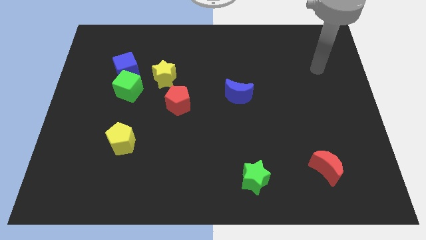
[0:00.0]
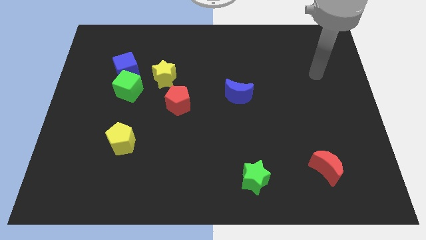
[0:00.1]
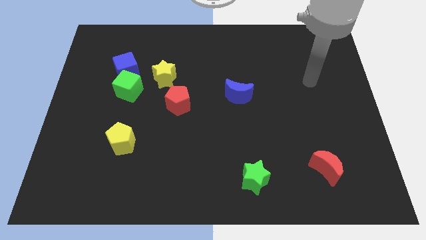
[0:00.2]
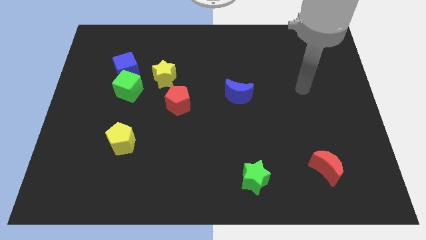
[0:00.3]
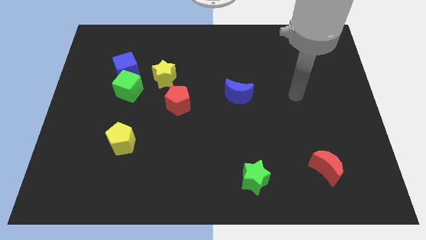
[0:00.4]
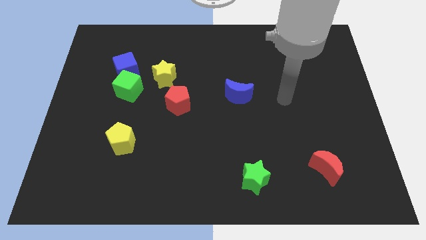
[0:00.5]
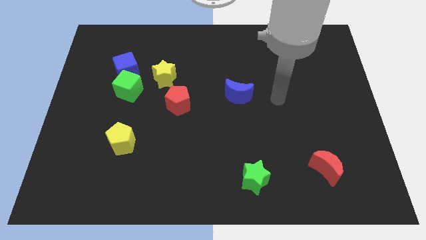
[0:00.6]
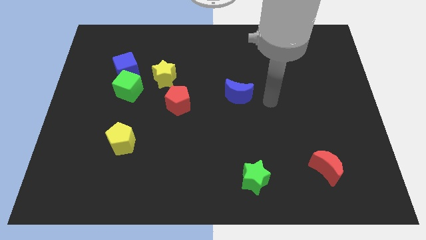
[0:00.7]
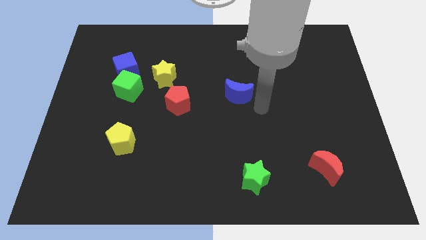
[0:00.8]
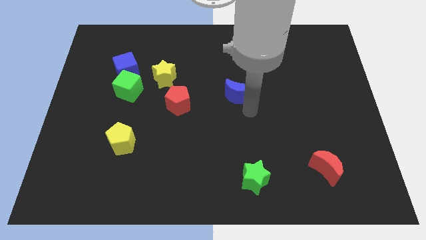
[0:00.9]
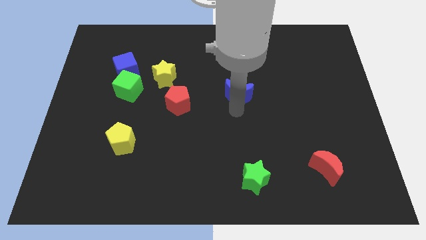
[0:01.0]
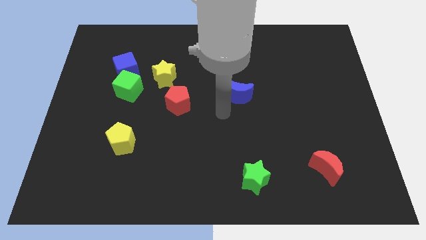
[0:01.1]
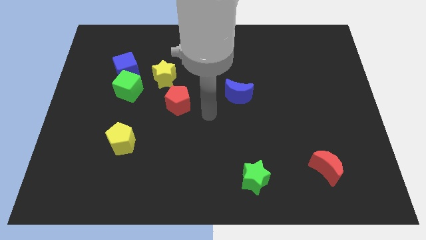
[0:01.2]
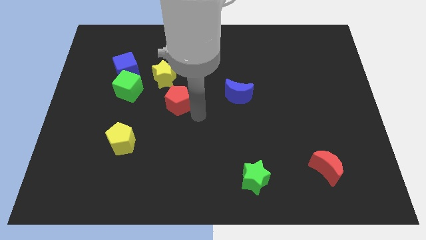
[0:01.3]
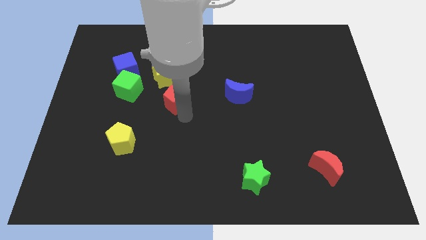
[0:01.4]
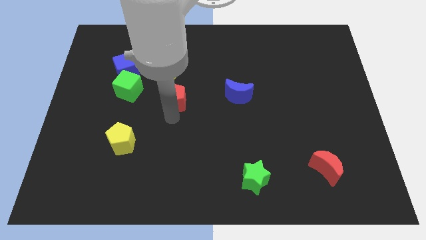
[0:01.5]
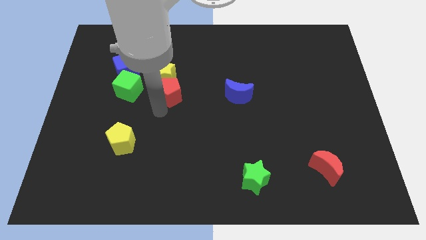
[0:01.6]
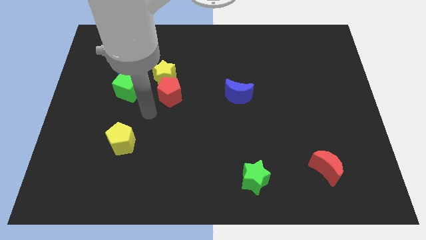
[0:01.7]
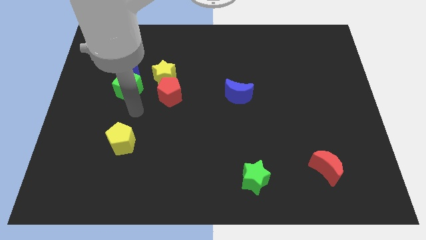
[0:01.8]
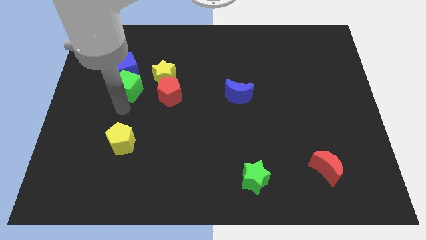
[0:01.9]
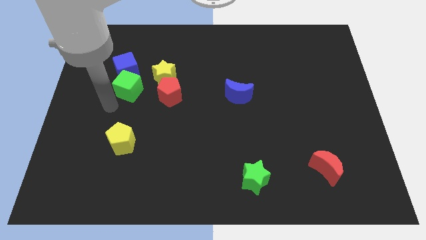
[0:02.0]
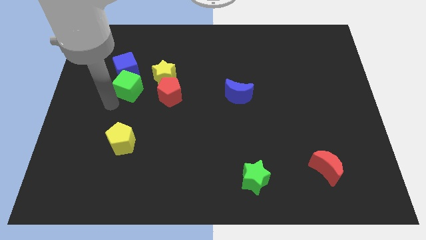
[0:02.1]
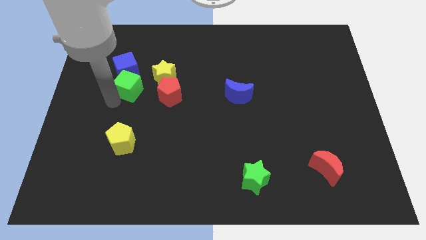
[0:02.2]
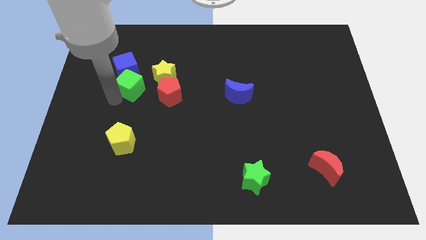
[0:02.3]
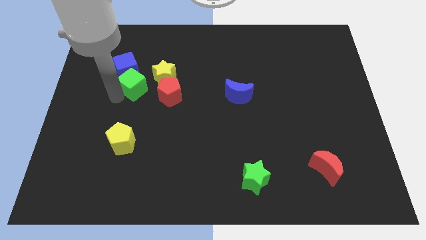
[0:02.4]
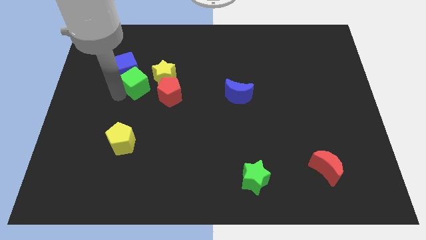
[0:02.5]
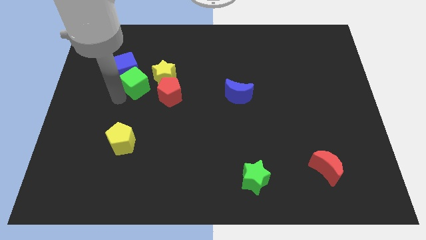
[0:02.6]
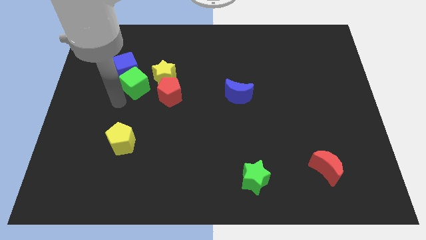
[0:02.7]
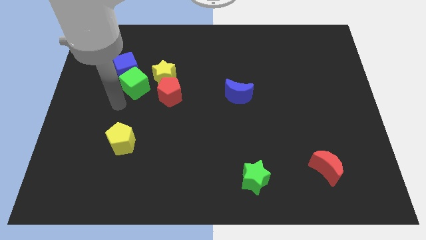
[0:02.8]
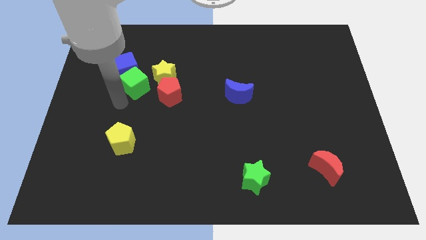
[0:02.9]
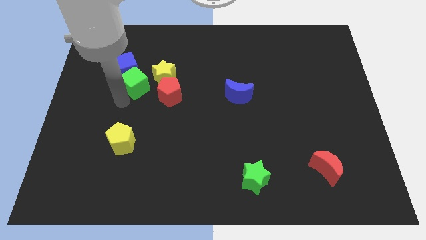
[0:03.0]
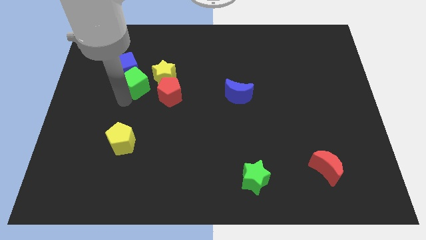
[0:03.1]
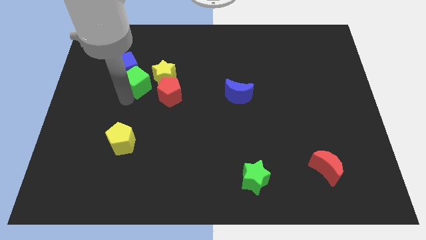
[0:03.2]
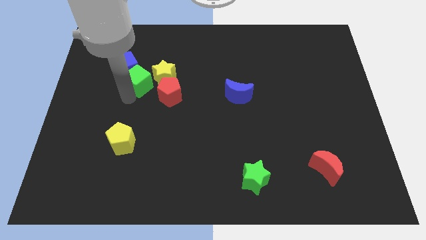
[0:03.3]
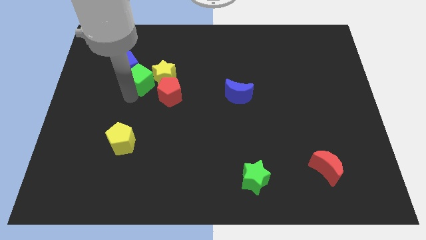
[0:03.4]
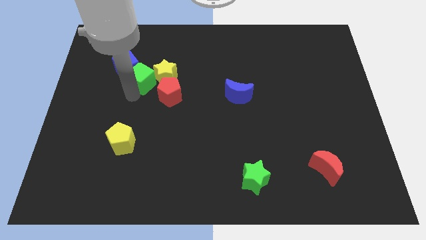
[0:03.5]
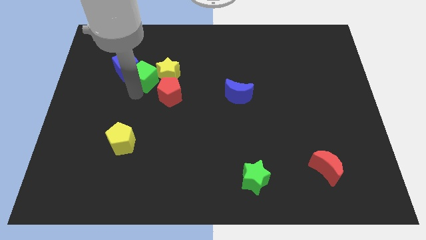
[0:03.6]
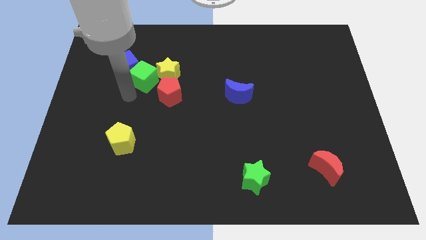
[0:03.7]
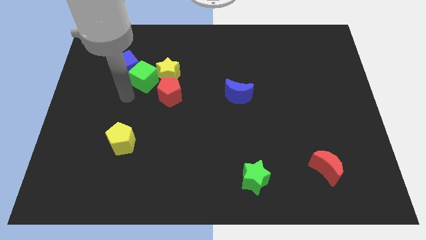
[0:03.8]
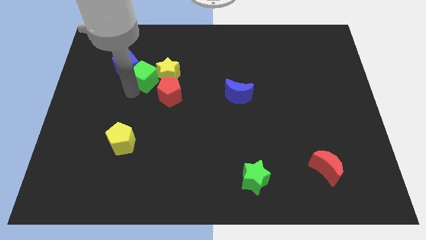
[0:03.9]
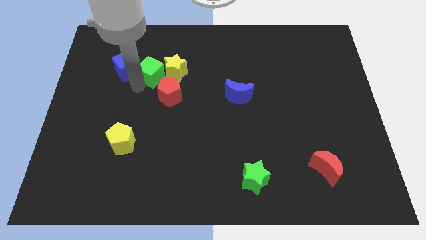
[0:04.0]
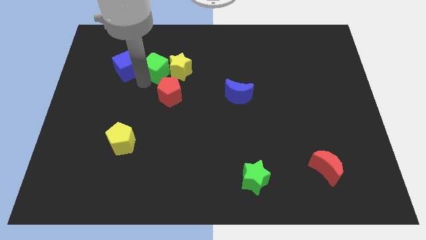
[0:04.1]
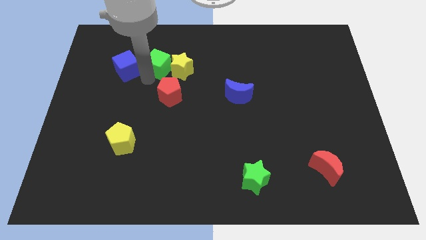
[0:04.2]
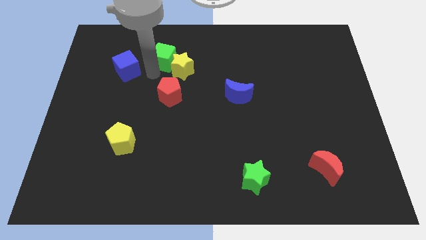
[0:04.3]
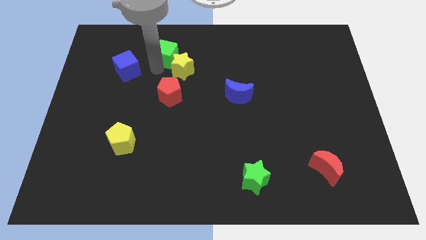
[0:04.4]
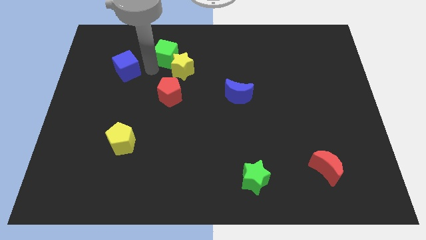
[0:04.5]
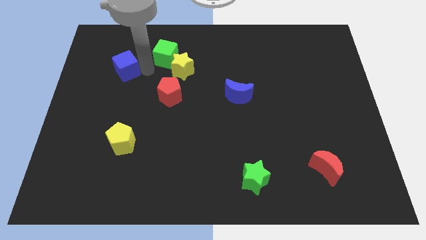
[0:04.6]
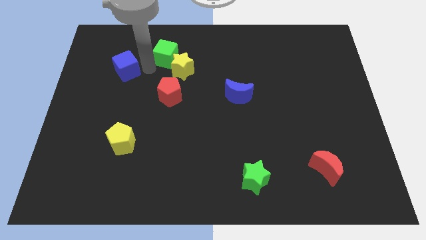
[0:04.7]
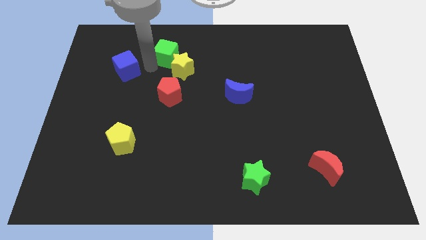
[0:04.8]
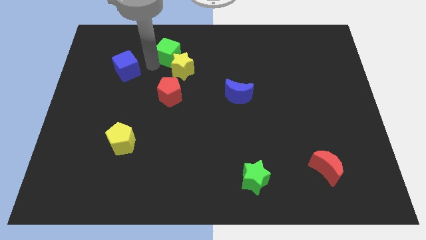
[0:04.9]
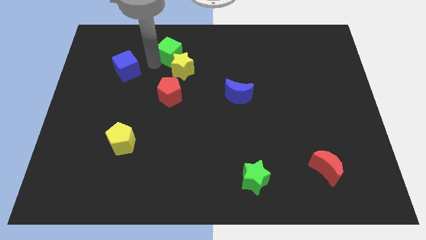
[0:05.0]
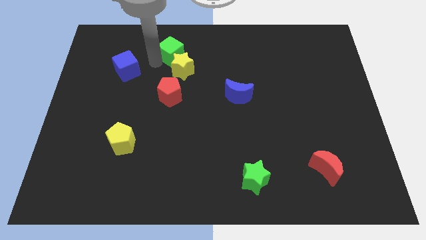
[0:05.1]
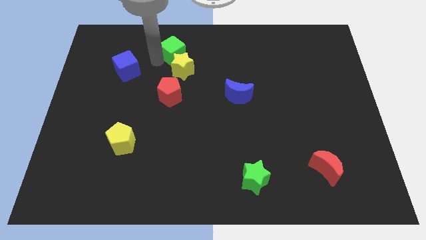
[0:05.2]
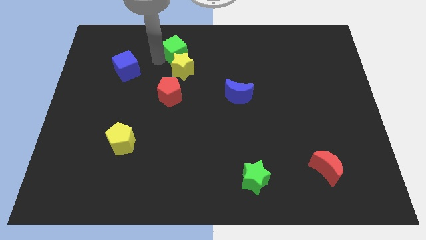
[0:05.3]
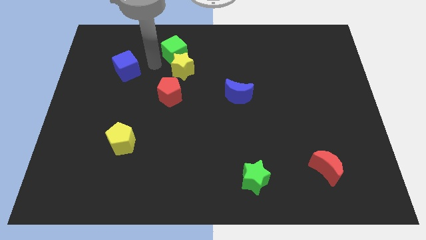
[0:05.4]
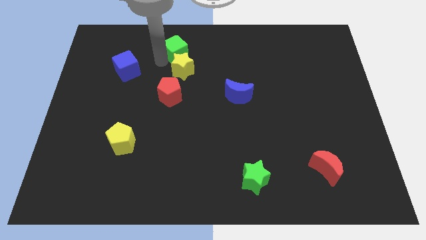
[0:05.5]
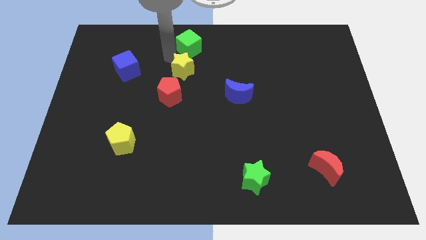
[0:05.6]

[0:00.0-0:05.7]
put the green cube to the towards your base
